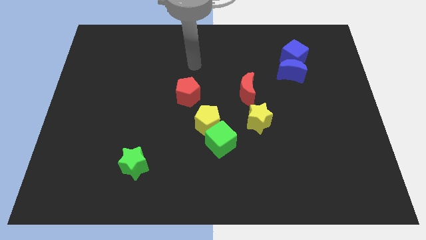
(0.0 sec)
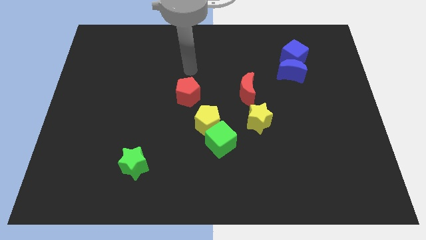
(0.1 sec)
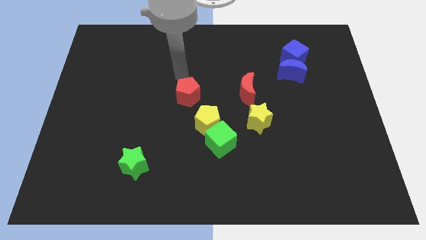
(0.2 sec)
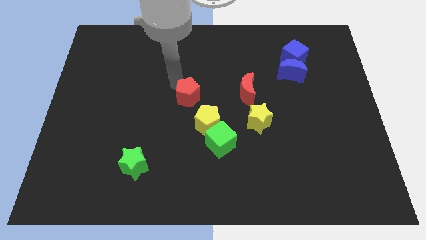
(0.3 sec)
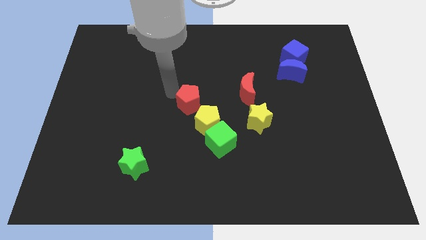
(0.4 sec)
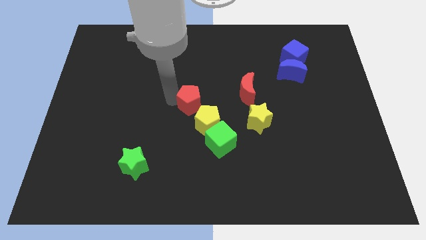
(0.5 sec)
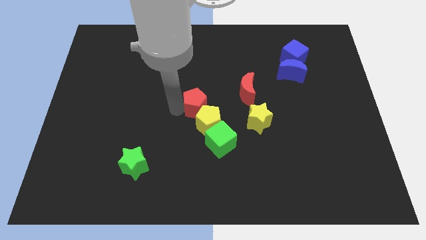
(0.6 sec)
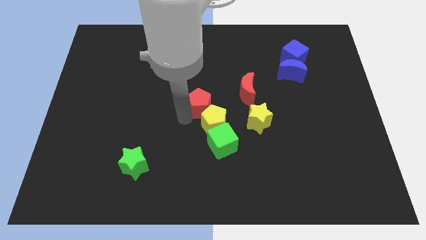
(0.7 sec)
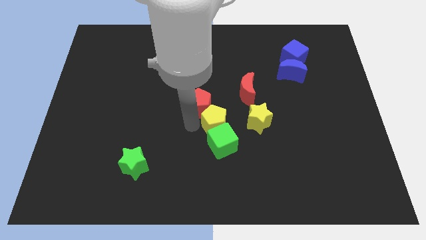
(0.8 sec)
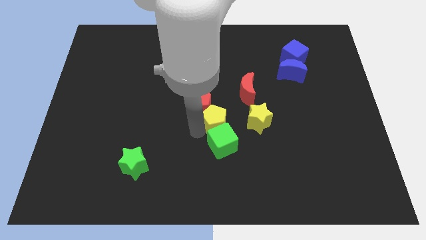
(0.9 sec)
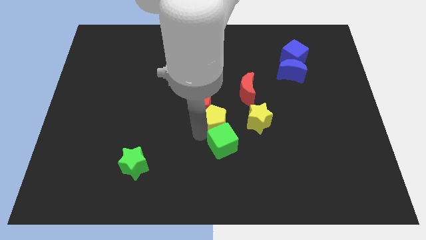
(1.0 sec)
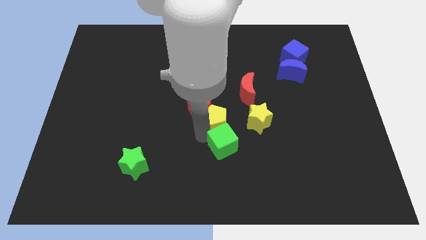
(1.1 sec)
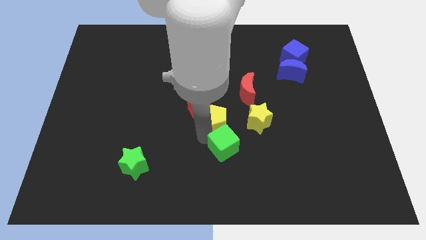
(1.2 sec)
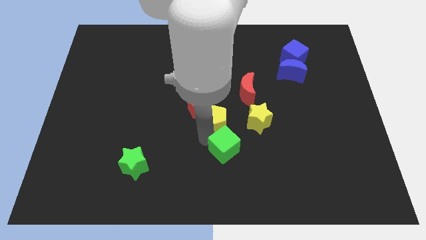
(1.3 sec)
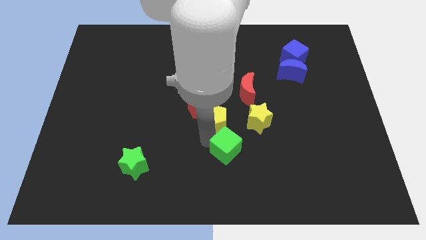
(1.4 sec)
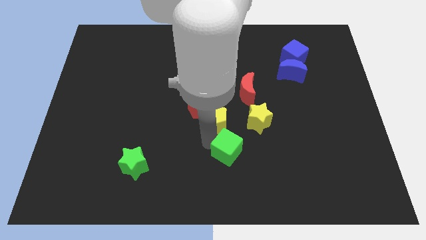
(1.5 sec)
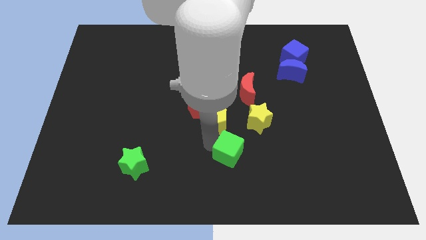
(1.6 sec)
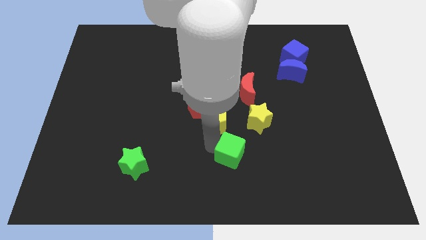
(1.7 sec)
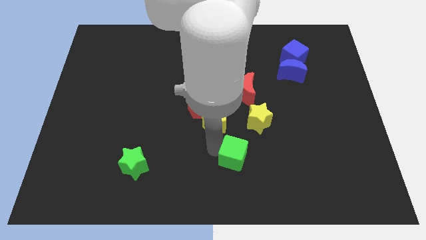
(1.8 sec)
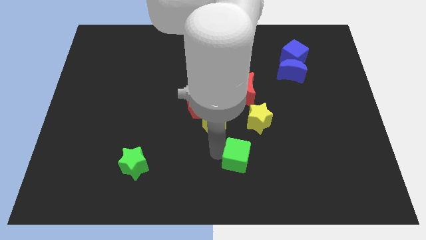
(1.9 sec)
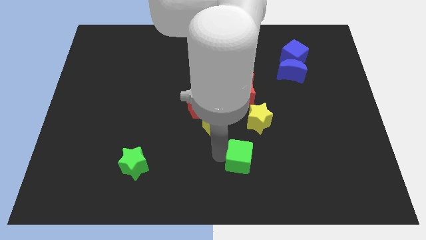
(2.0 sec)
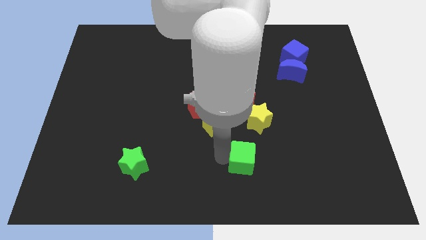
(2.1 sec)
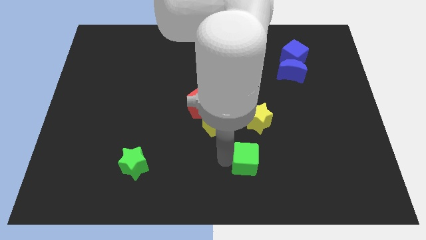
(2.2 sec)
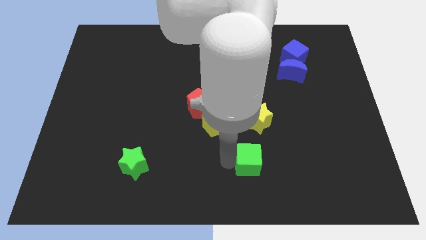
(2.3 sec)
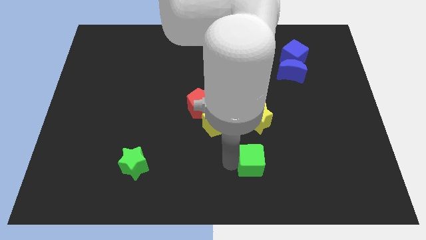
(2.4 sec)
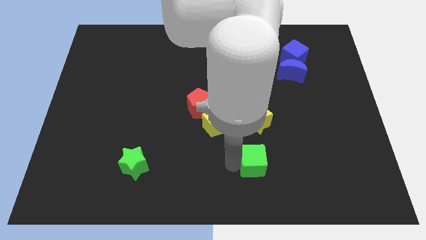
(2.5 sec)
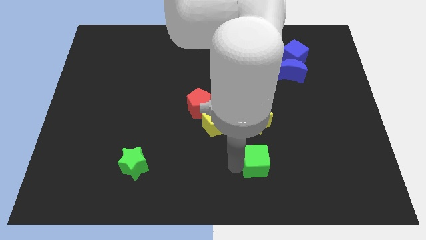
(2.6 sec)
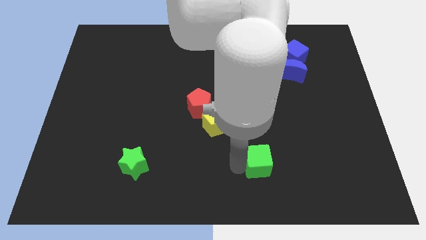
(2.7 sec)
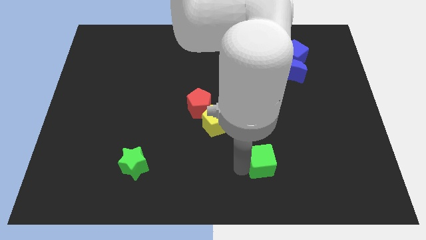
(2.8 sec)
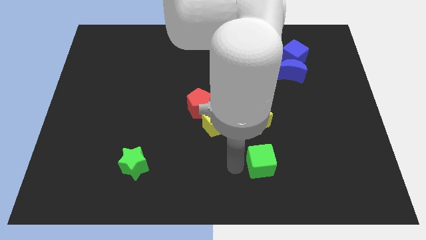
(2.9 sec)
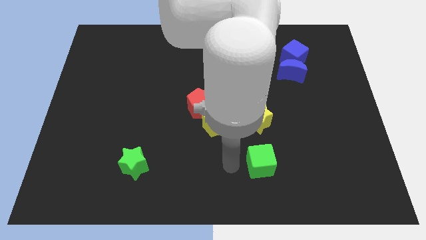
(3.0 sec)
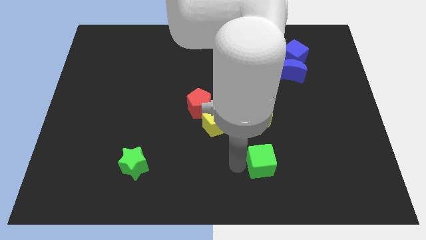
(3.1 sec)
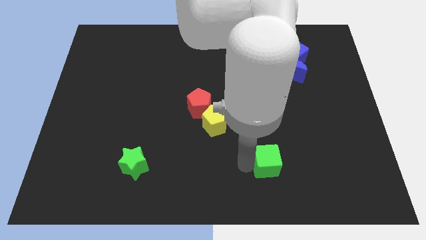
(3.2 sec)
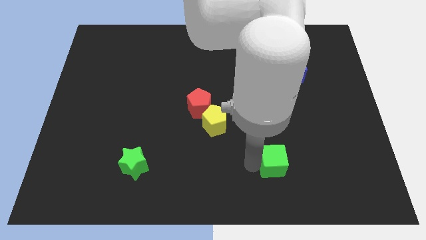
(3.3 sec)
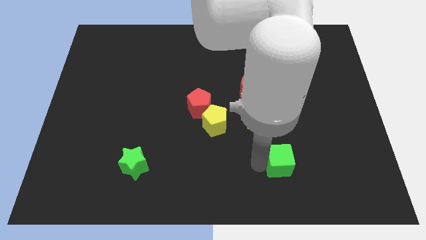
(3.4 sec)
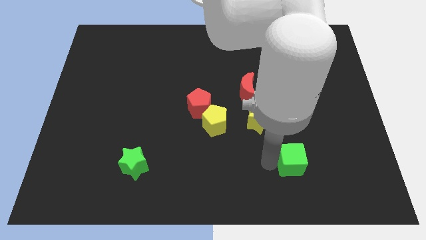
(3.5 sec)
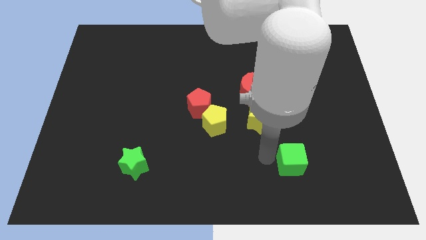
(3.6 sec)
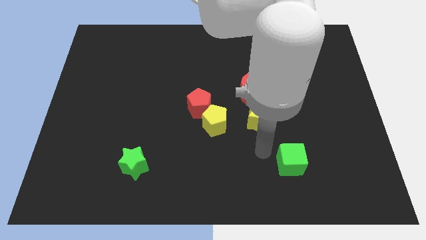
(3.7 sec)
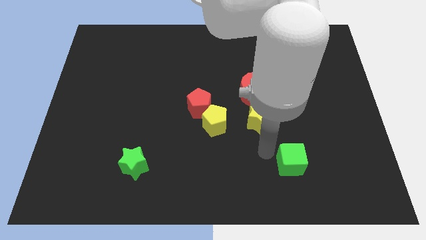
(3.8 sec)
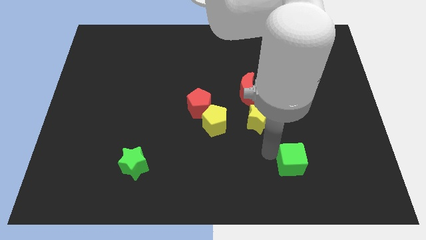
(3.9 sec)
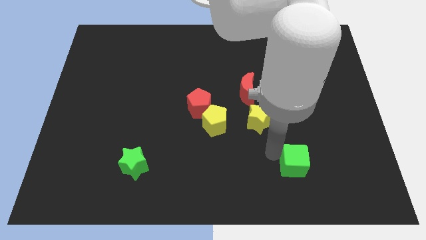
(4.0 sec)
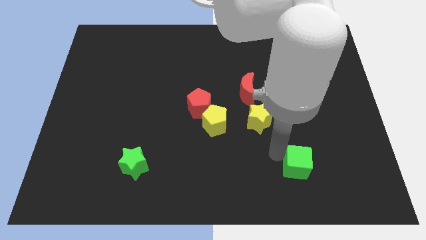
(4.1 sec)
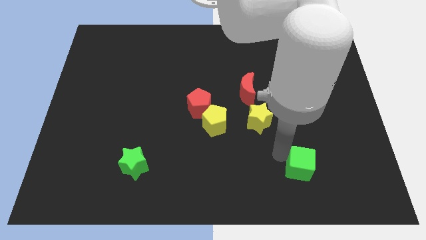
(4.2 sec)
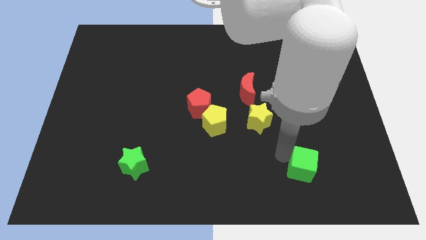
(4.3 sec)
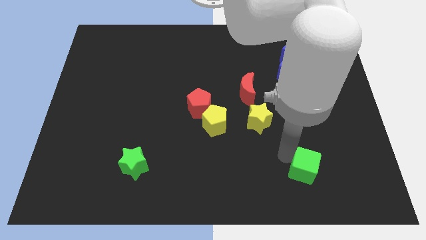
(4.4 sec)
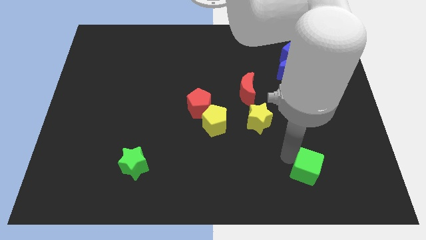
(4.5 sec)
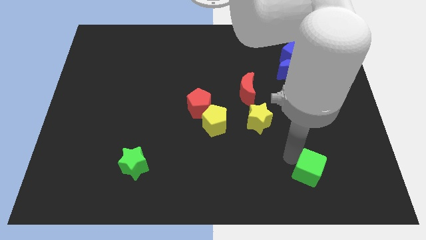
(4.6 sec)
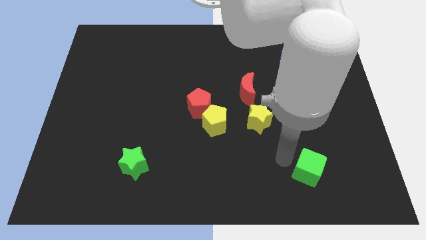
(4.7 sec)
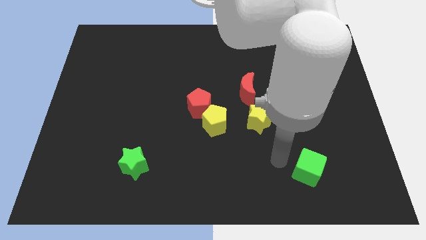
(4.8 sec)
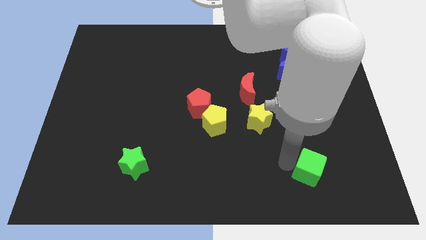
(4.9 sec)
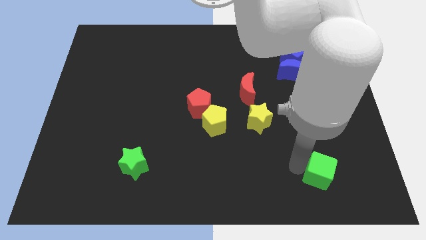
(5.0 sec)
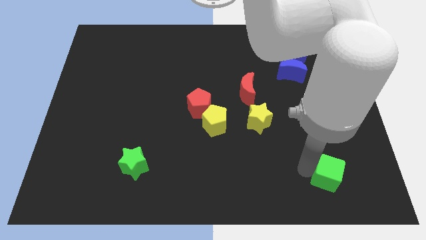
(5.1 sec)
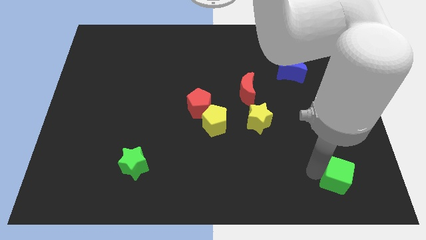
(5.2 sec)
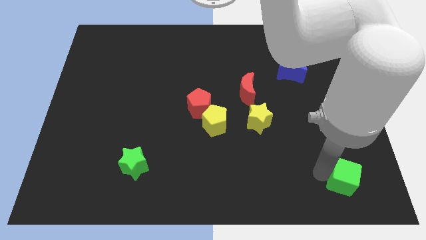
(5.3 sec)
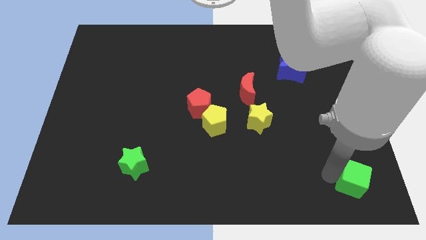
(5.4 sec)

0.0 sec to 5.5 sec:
move the green cube to the lower right corner
